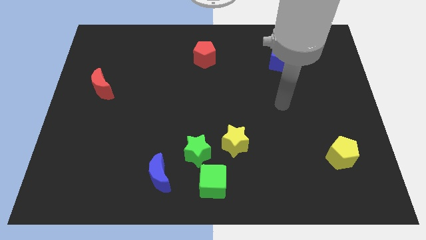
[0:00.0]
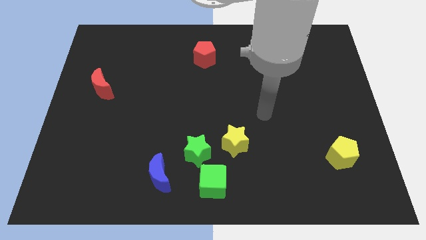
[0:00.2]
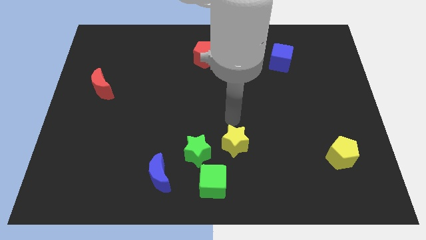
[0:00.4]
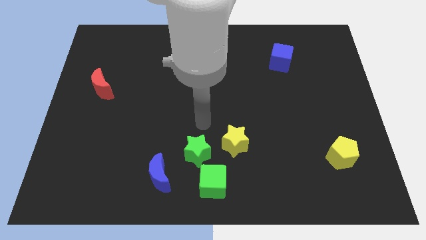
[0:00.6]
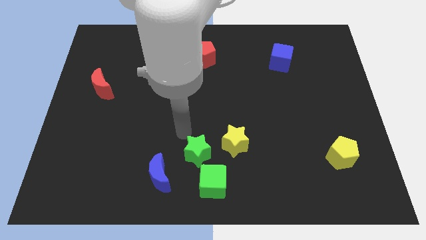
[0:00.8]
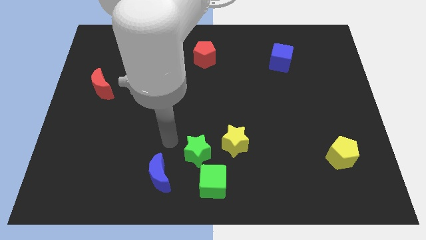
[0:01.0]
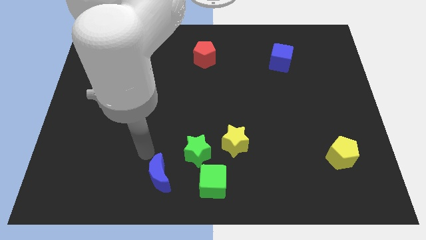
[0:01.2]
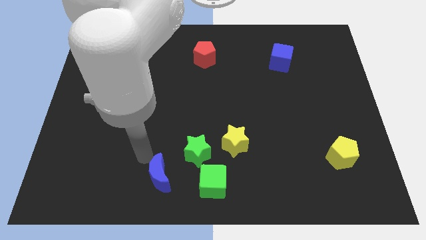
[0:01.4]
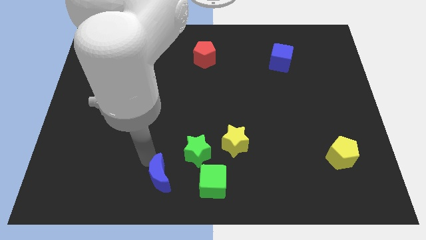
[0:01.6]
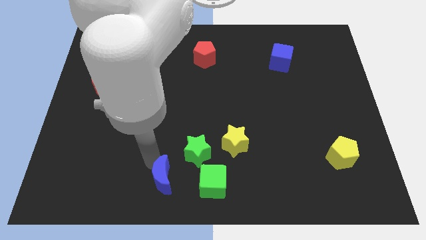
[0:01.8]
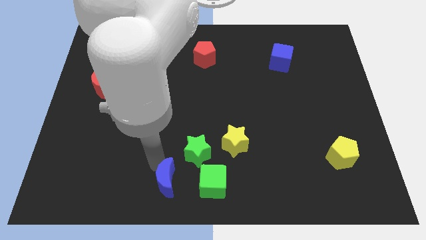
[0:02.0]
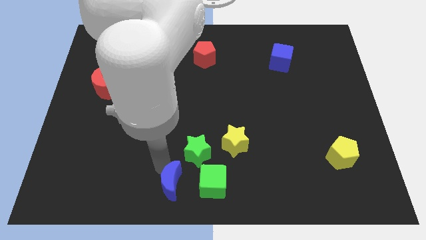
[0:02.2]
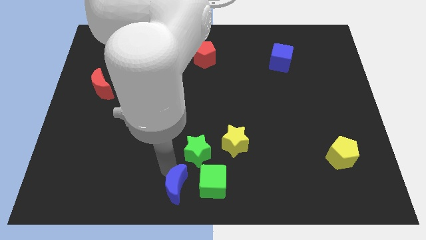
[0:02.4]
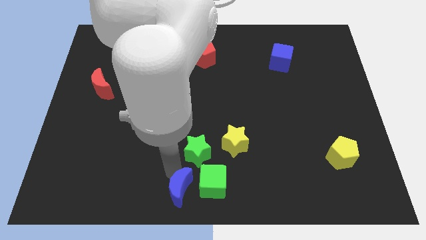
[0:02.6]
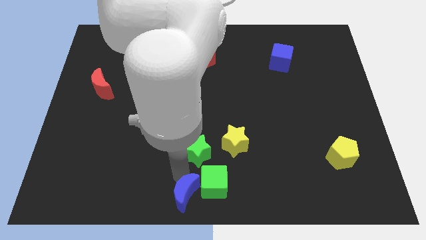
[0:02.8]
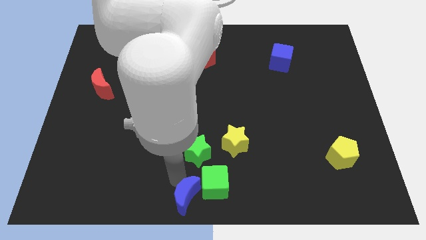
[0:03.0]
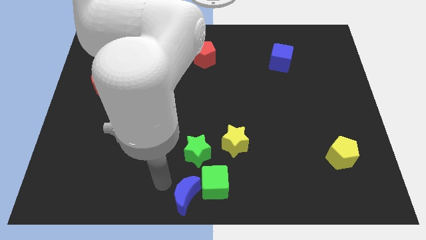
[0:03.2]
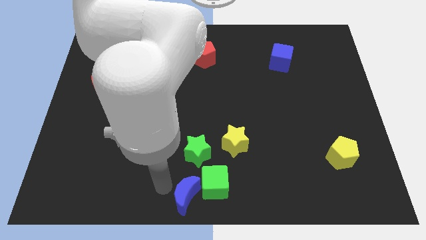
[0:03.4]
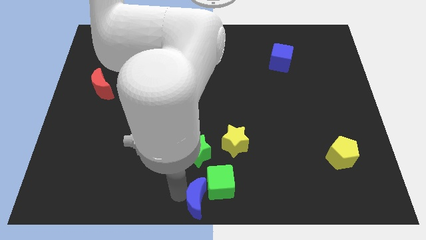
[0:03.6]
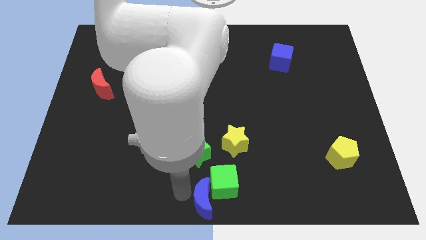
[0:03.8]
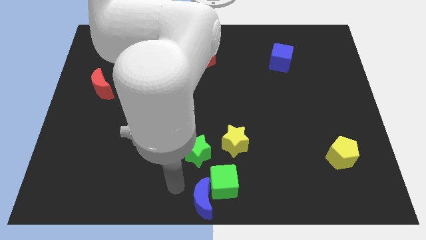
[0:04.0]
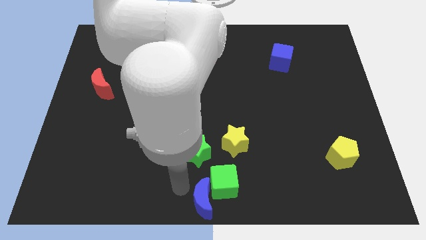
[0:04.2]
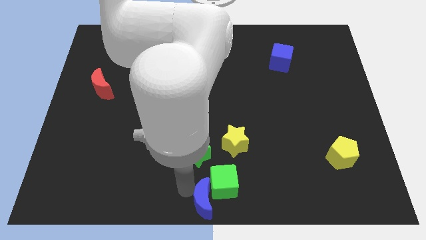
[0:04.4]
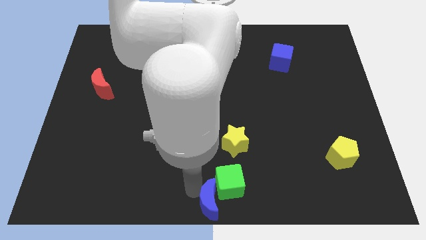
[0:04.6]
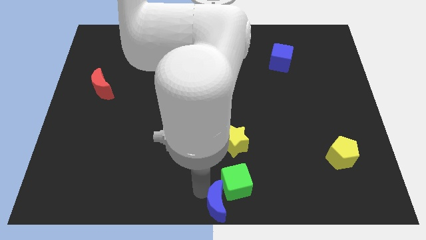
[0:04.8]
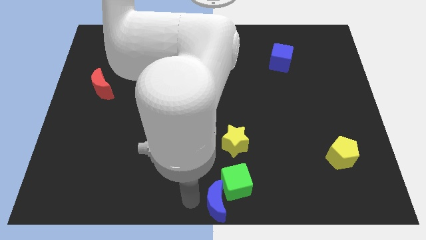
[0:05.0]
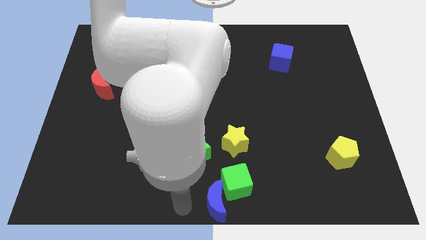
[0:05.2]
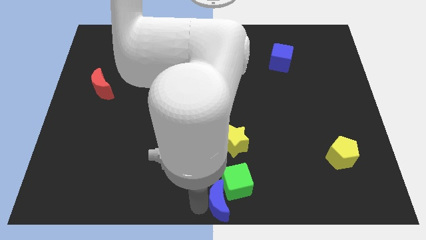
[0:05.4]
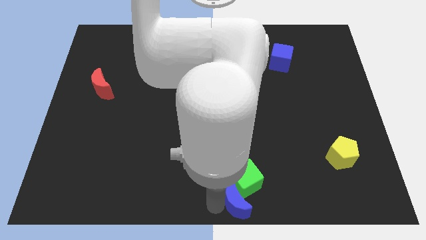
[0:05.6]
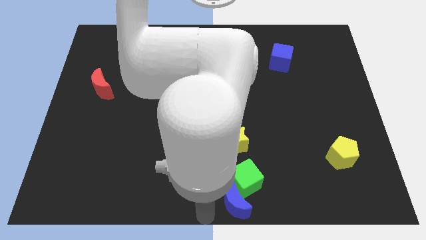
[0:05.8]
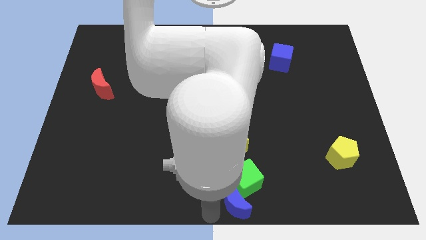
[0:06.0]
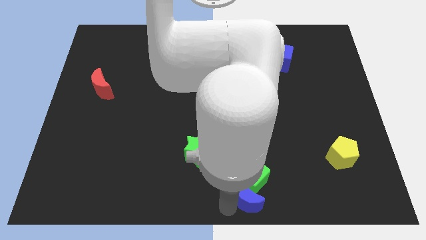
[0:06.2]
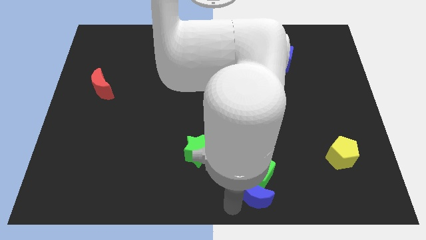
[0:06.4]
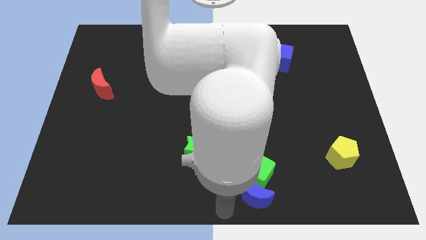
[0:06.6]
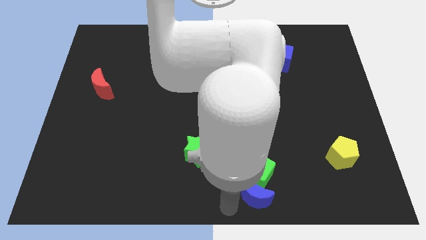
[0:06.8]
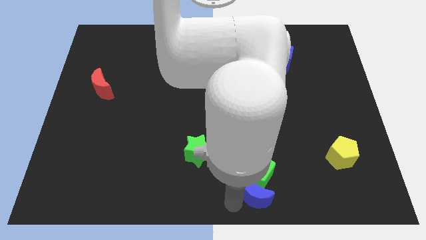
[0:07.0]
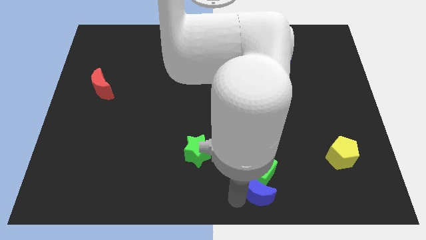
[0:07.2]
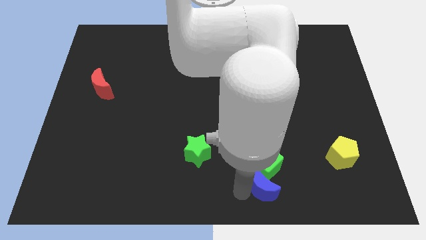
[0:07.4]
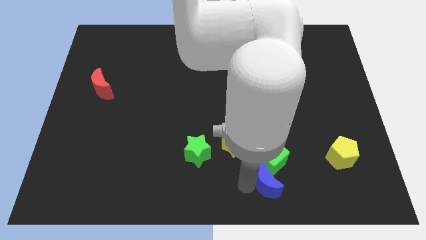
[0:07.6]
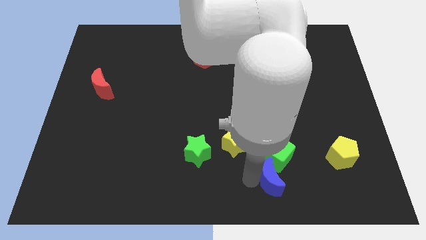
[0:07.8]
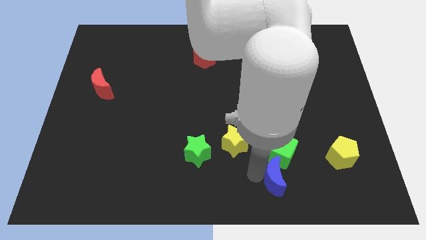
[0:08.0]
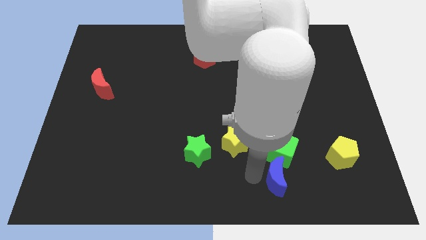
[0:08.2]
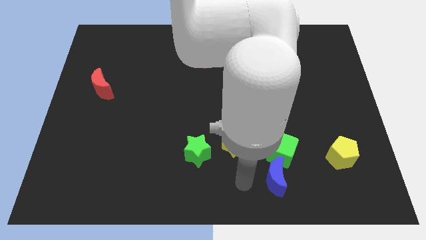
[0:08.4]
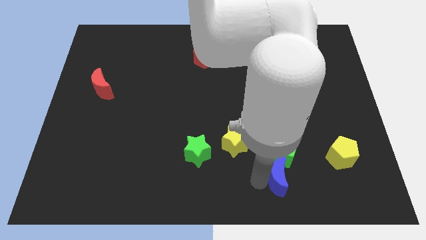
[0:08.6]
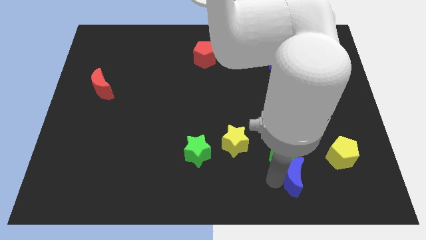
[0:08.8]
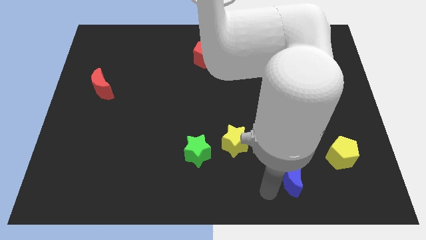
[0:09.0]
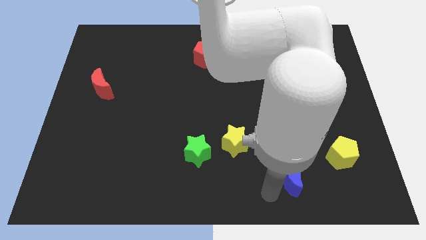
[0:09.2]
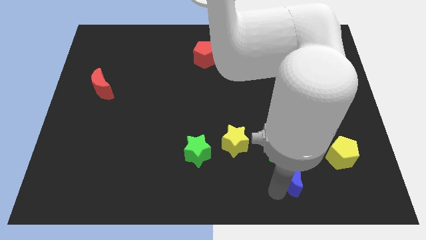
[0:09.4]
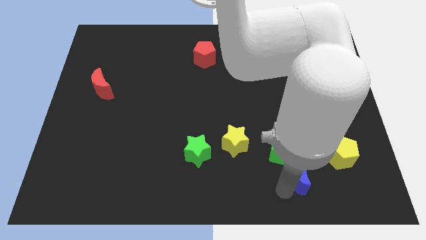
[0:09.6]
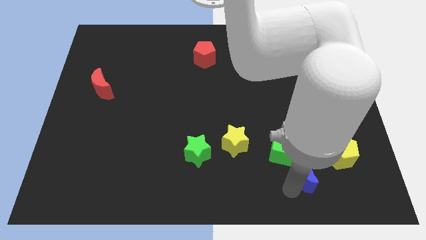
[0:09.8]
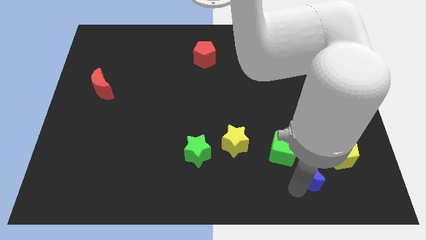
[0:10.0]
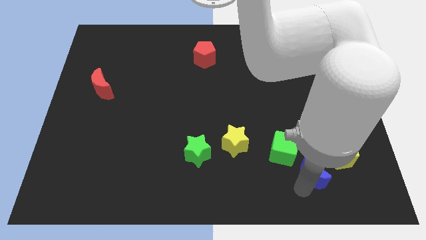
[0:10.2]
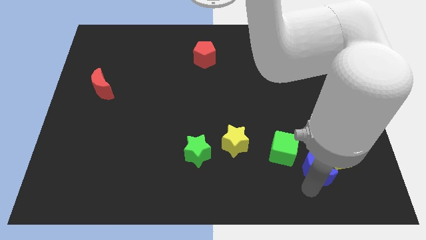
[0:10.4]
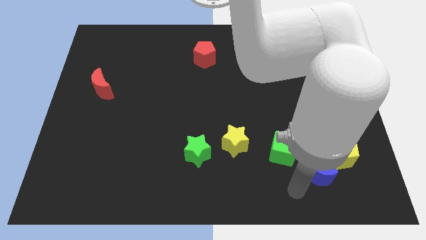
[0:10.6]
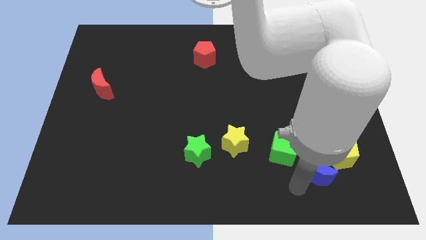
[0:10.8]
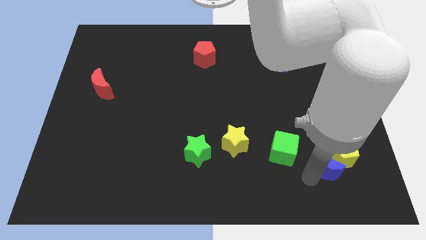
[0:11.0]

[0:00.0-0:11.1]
put the blue moon next to the yellow pentagon

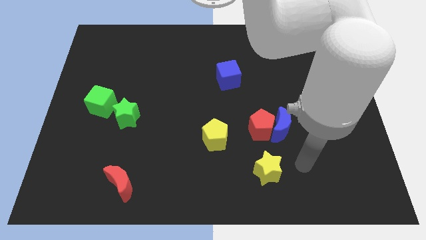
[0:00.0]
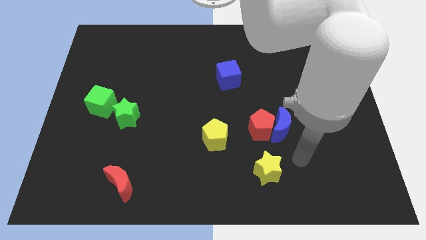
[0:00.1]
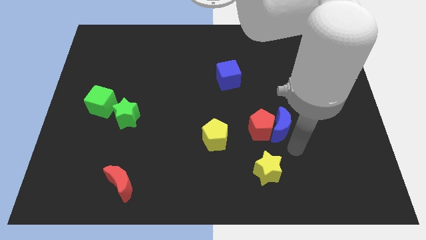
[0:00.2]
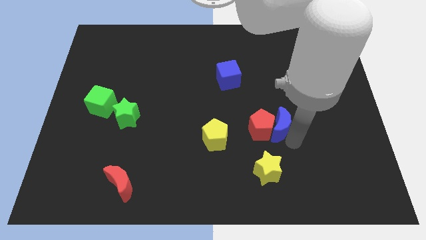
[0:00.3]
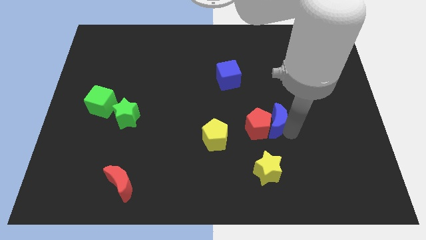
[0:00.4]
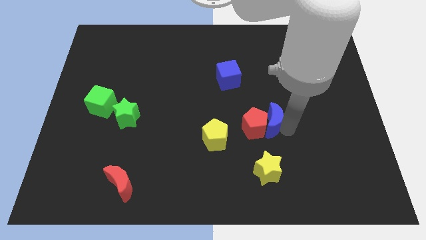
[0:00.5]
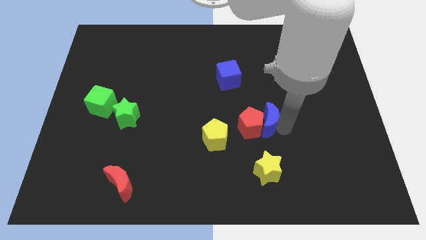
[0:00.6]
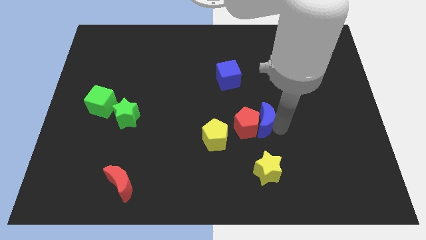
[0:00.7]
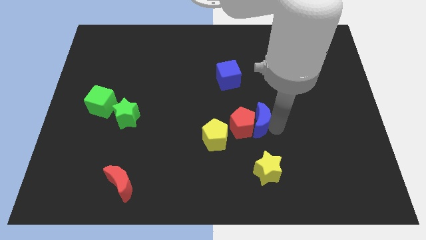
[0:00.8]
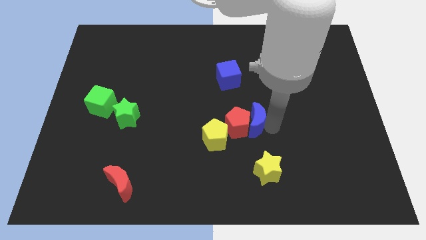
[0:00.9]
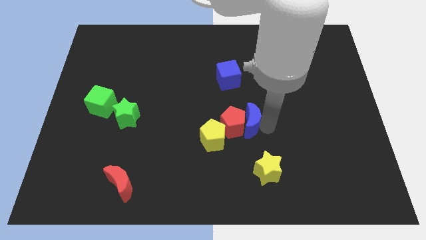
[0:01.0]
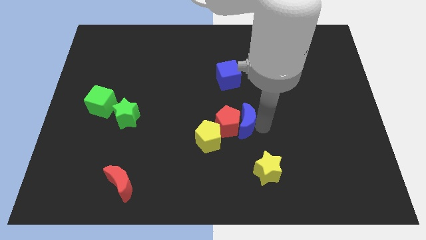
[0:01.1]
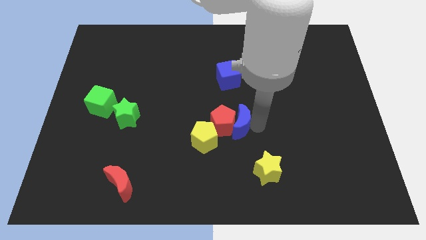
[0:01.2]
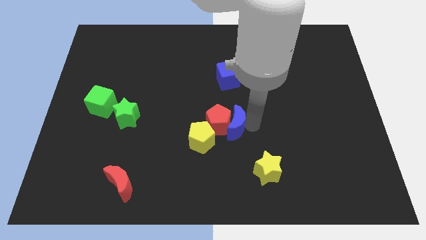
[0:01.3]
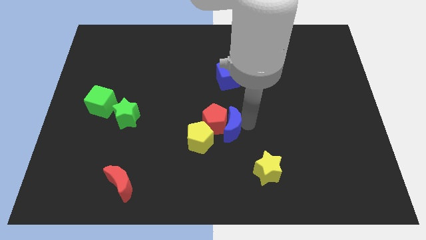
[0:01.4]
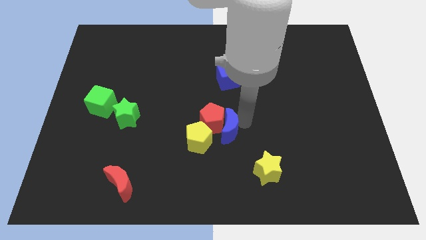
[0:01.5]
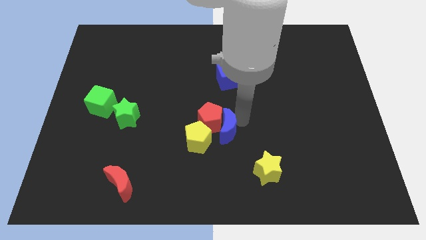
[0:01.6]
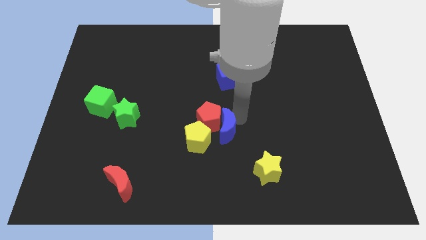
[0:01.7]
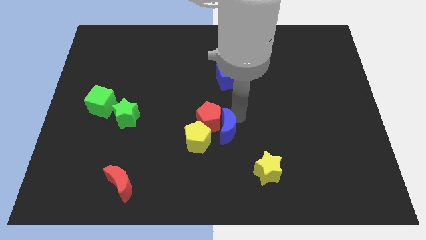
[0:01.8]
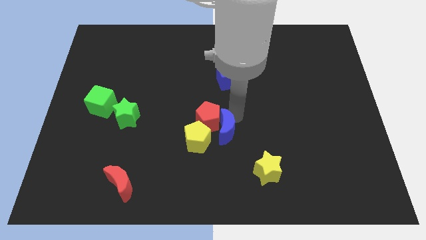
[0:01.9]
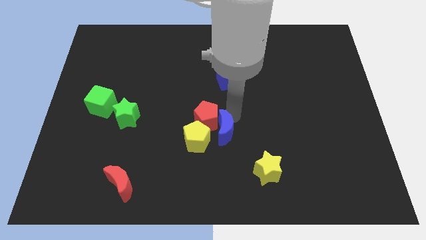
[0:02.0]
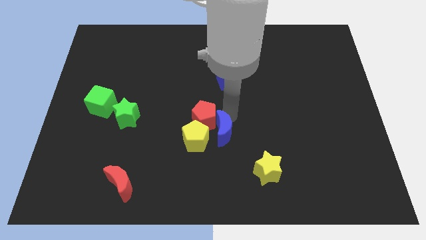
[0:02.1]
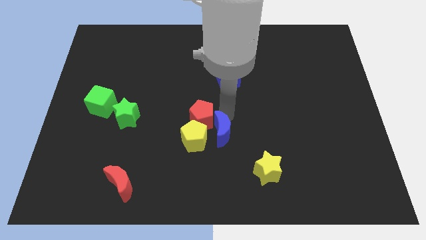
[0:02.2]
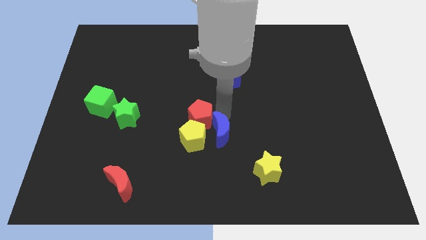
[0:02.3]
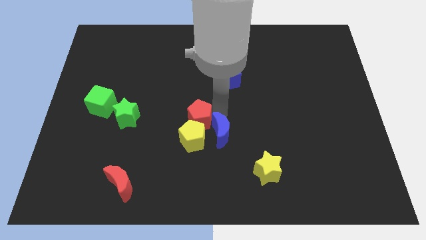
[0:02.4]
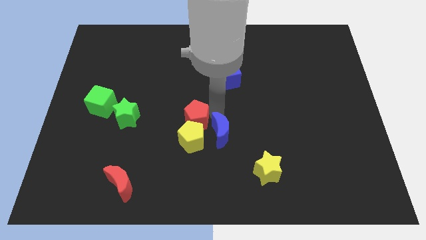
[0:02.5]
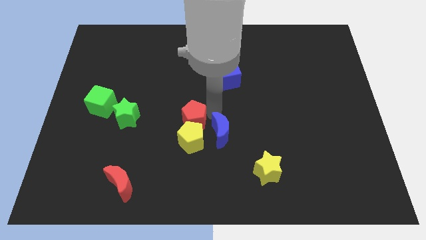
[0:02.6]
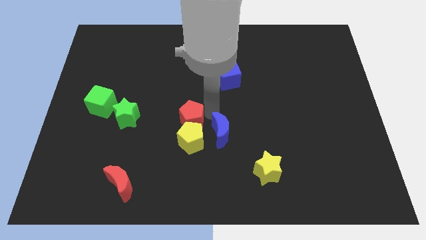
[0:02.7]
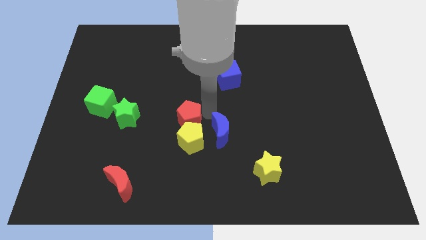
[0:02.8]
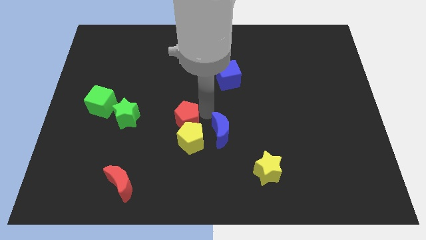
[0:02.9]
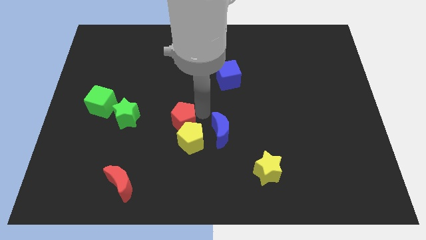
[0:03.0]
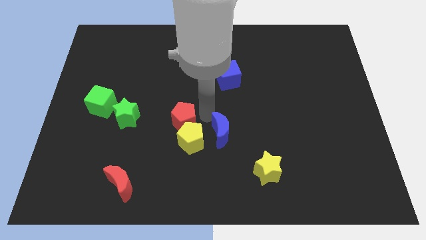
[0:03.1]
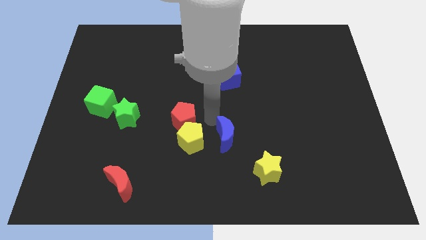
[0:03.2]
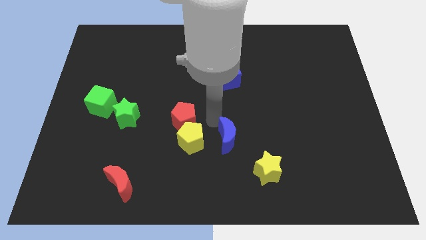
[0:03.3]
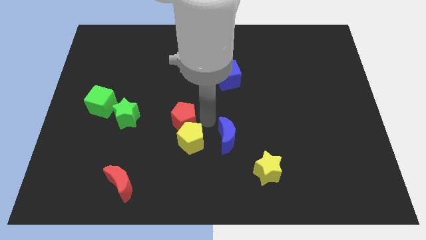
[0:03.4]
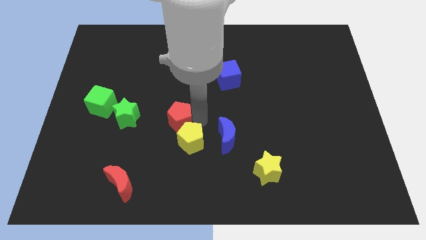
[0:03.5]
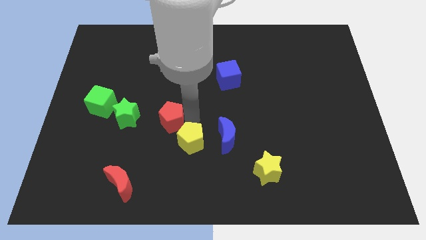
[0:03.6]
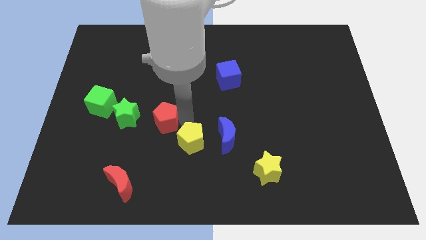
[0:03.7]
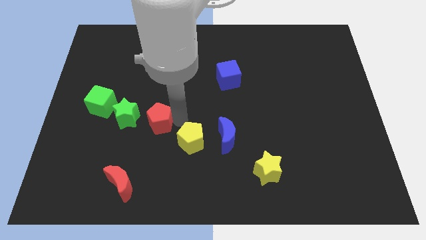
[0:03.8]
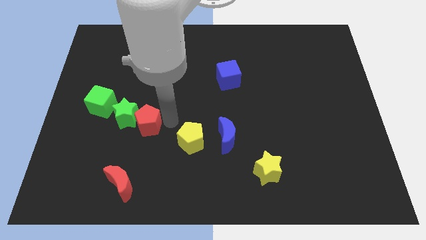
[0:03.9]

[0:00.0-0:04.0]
put the red pentagon towards the green star
